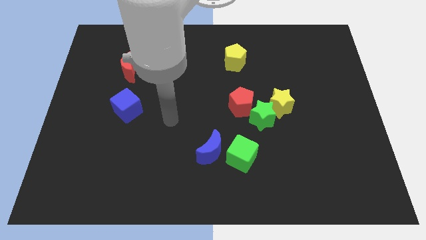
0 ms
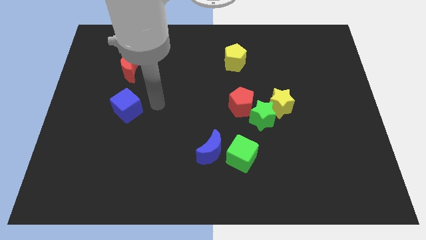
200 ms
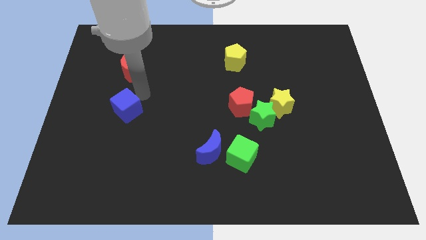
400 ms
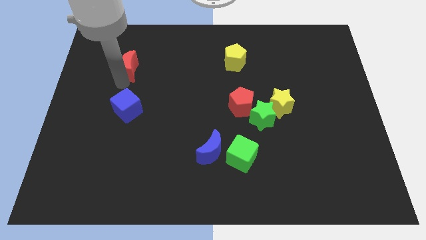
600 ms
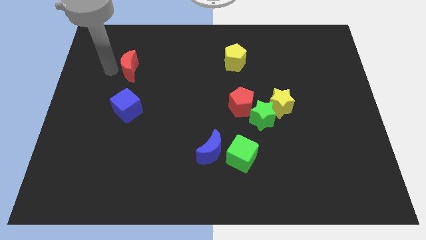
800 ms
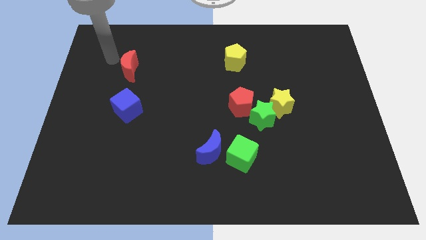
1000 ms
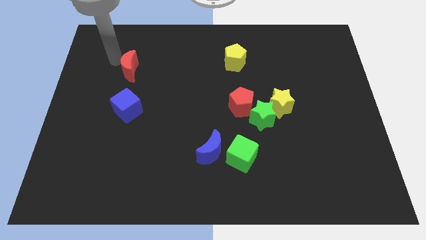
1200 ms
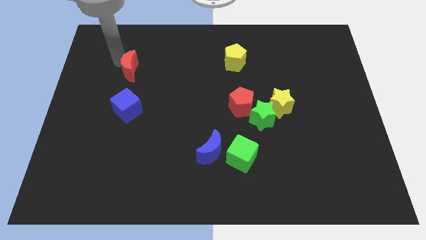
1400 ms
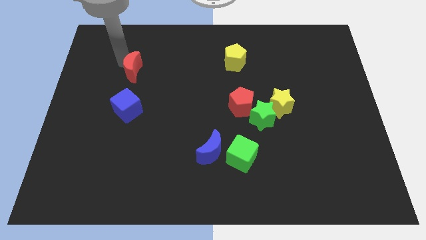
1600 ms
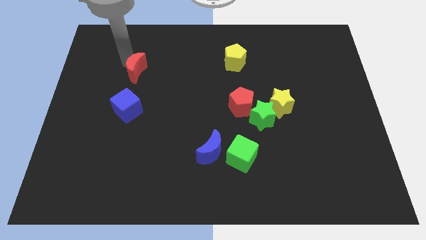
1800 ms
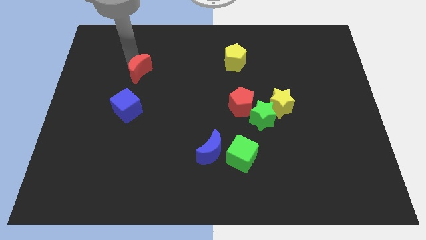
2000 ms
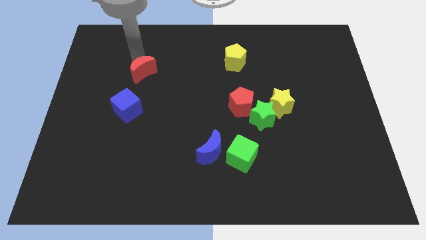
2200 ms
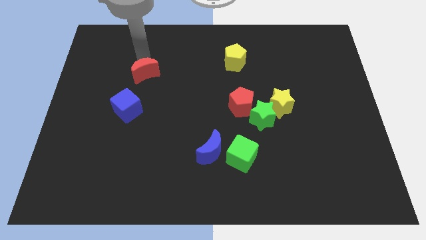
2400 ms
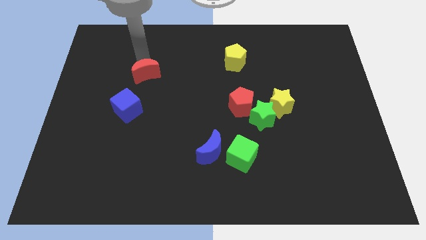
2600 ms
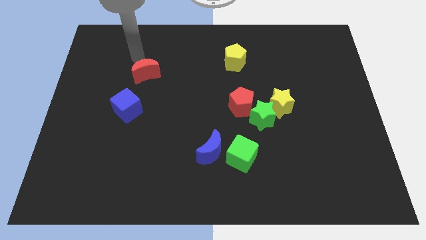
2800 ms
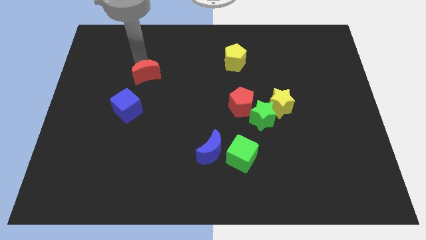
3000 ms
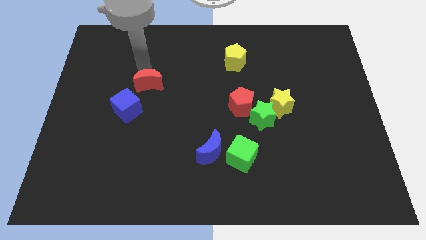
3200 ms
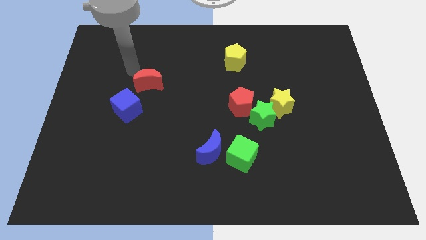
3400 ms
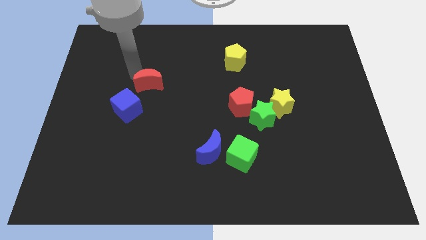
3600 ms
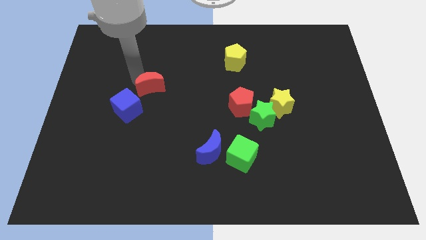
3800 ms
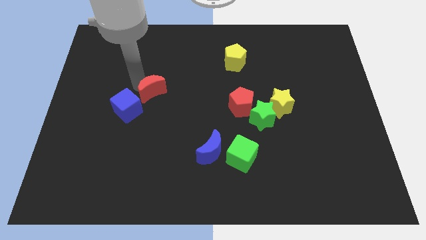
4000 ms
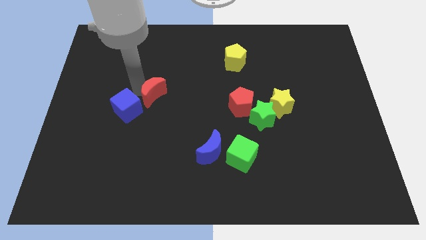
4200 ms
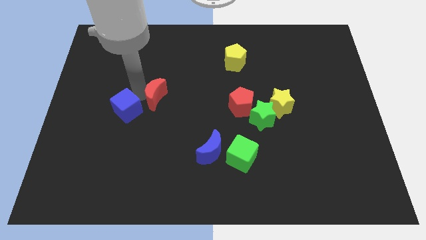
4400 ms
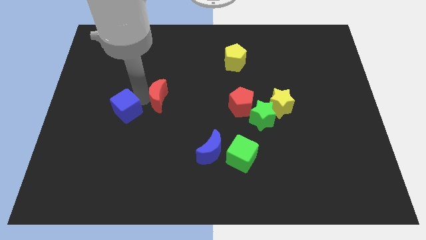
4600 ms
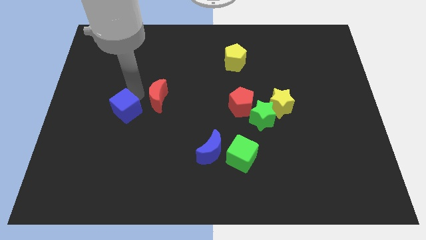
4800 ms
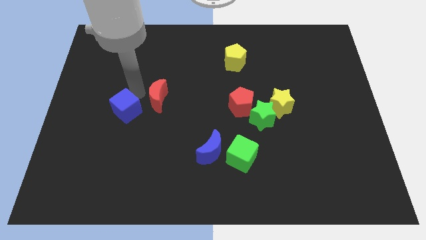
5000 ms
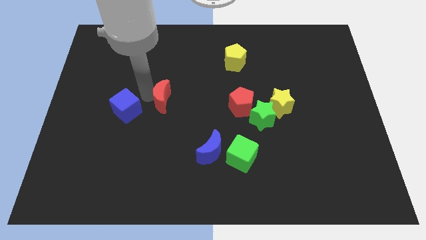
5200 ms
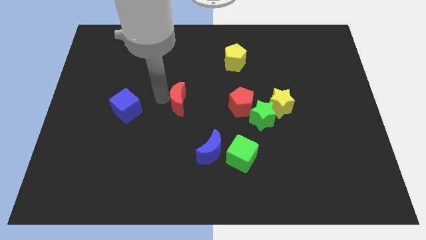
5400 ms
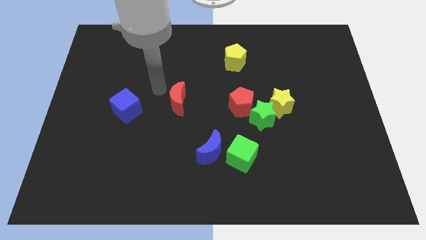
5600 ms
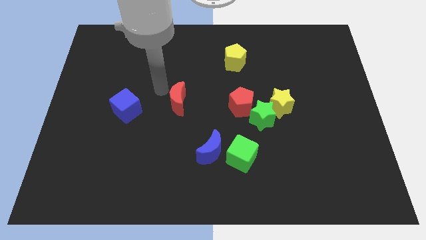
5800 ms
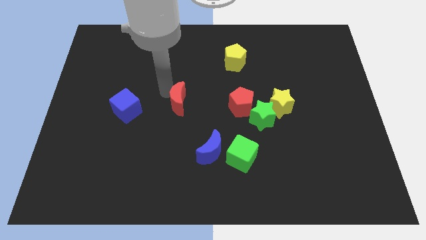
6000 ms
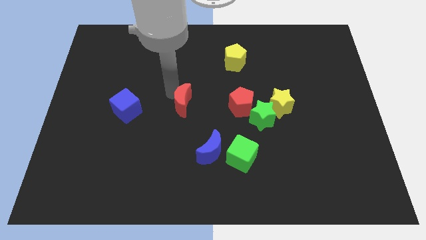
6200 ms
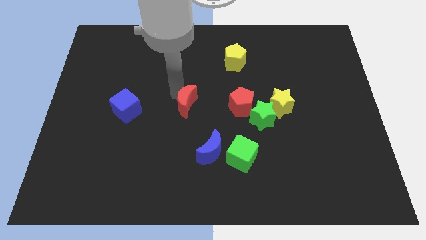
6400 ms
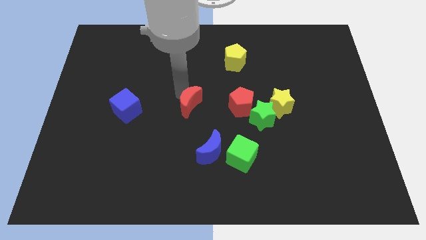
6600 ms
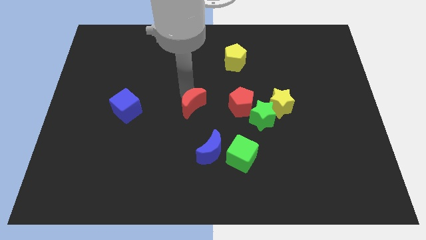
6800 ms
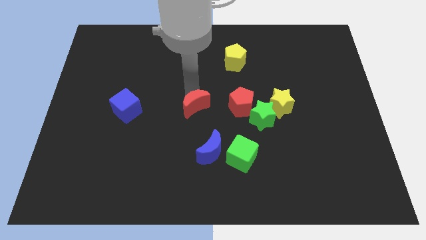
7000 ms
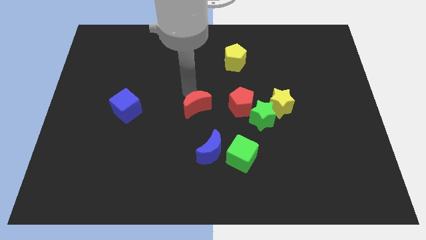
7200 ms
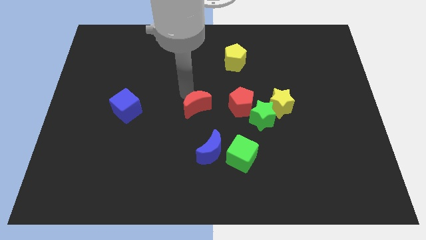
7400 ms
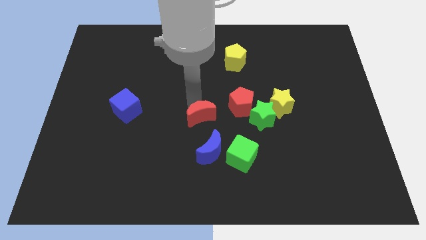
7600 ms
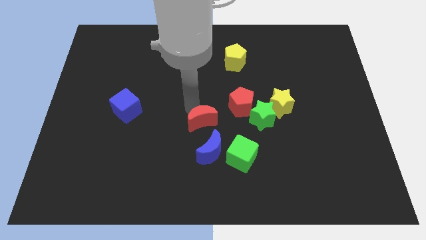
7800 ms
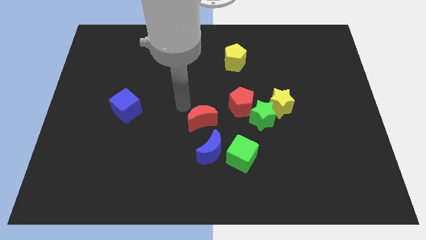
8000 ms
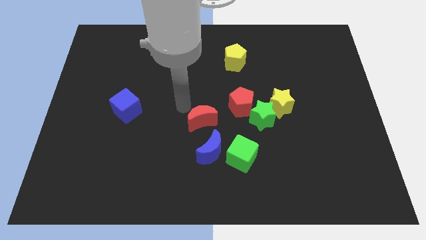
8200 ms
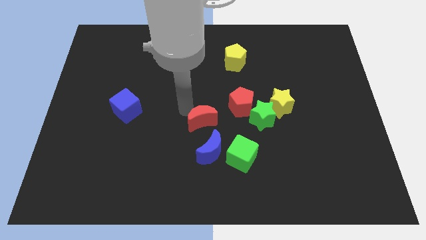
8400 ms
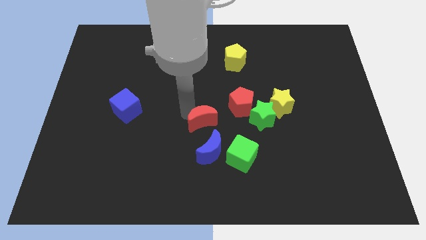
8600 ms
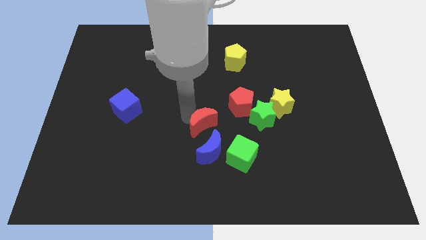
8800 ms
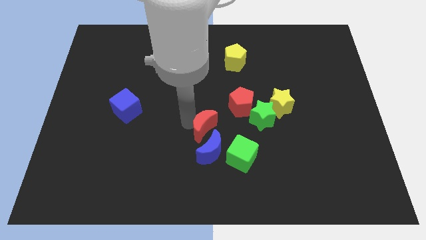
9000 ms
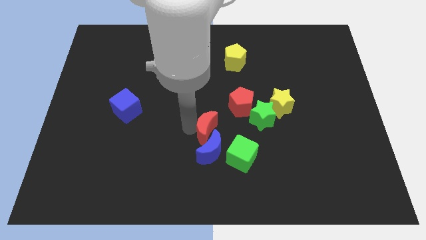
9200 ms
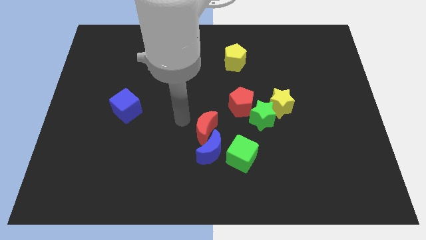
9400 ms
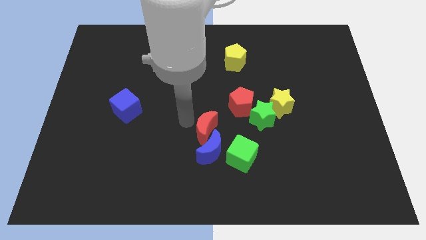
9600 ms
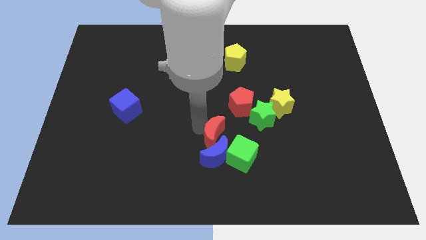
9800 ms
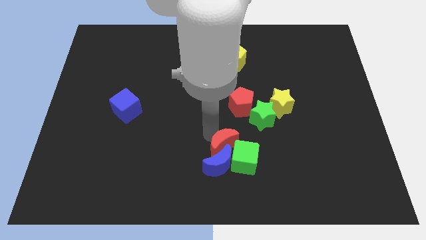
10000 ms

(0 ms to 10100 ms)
slide the red moon towards the green cube

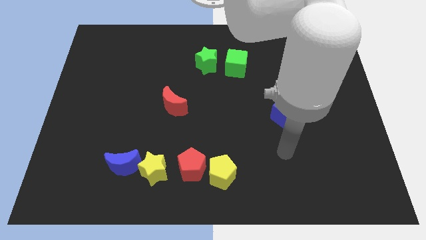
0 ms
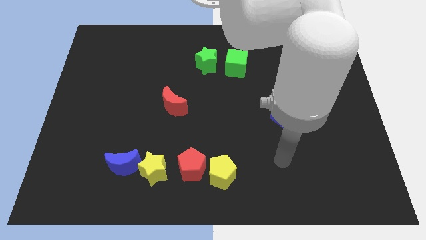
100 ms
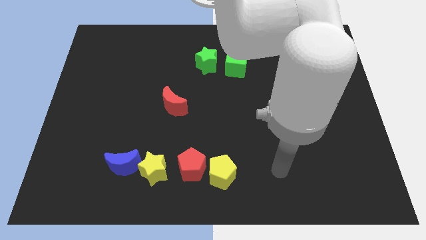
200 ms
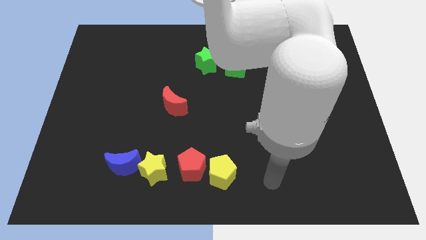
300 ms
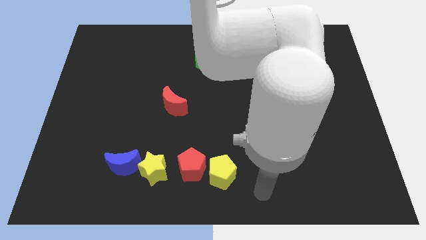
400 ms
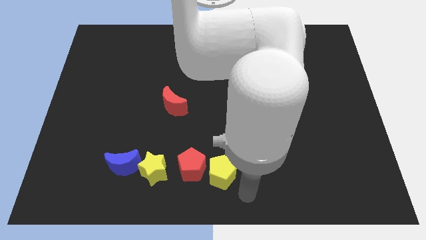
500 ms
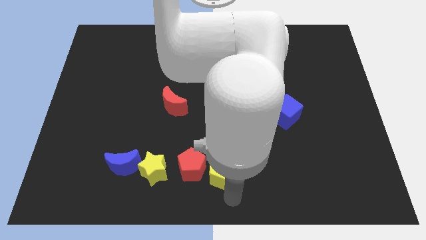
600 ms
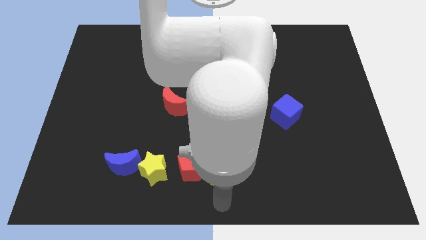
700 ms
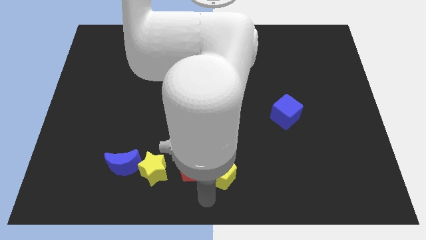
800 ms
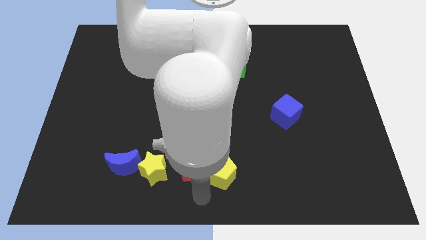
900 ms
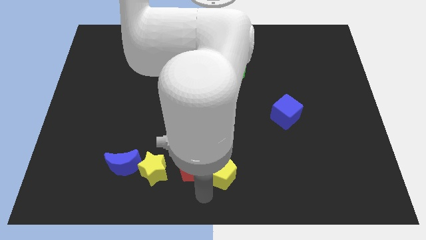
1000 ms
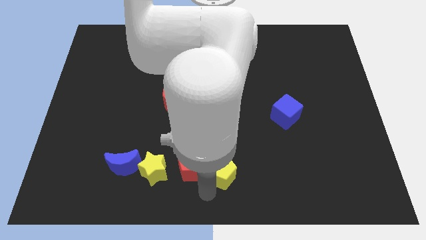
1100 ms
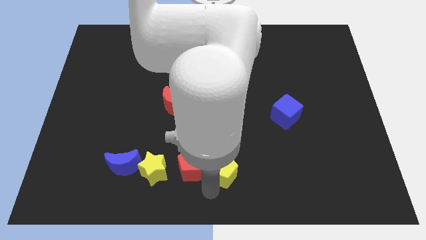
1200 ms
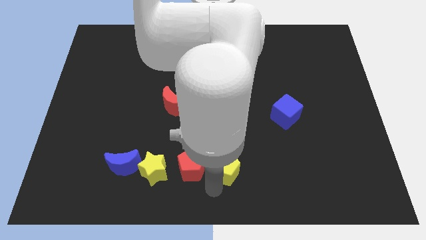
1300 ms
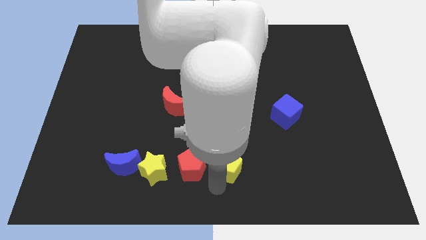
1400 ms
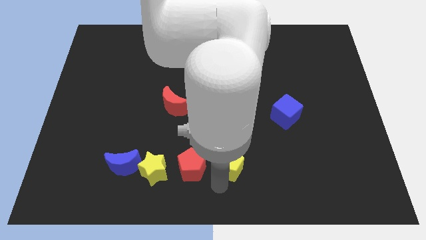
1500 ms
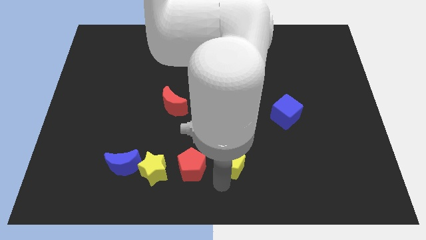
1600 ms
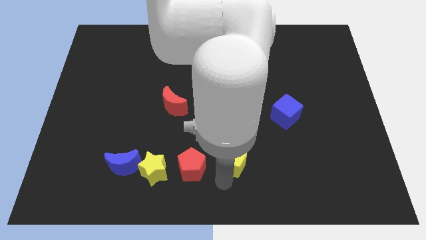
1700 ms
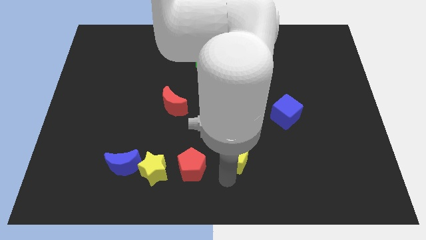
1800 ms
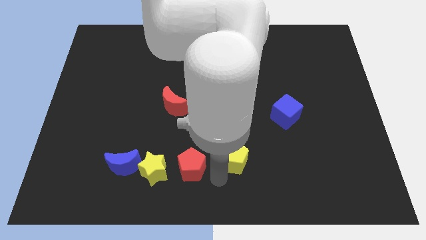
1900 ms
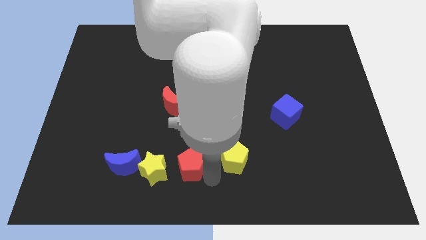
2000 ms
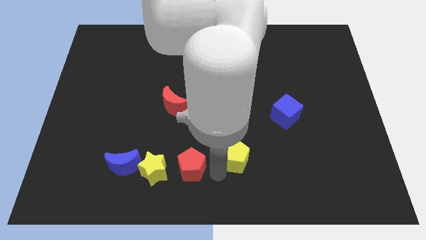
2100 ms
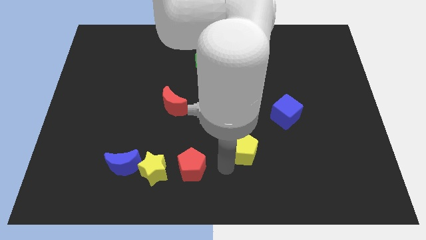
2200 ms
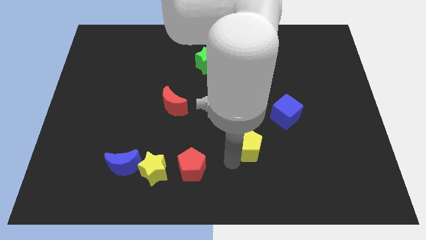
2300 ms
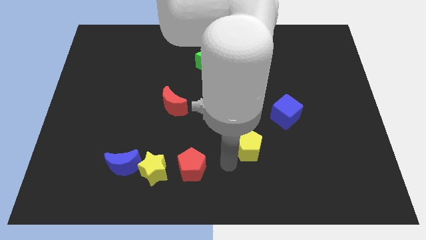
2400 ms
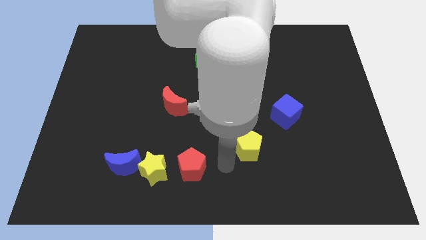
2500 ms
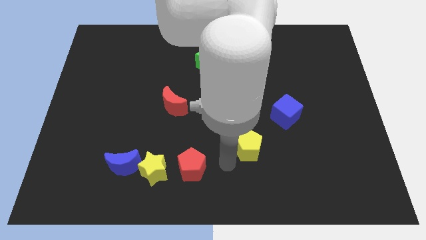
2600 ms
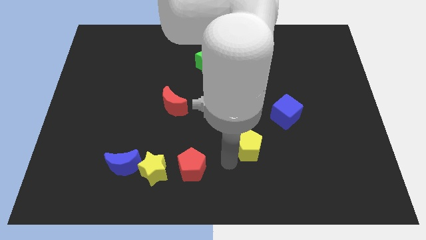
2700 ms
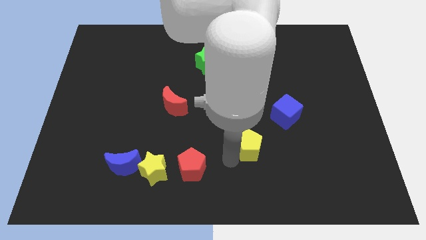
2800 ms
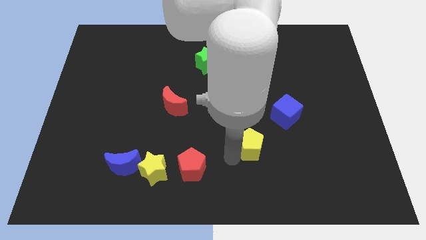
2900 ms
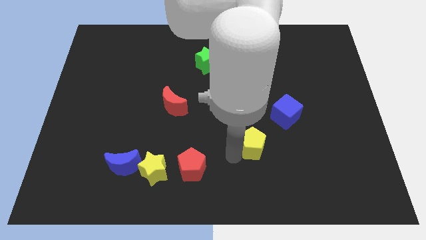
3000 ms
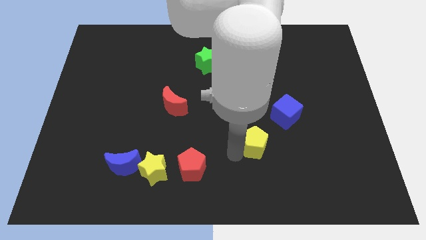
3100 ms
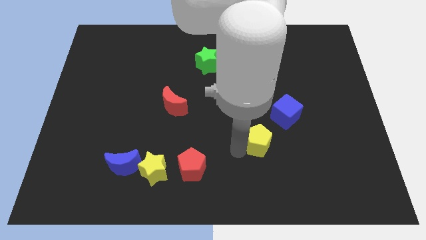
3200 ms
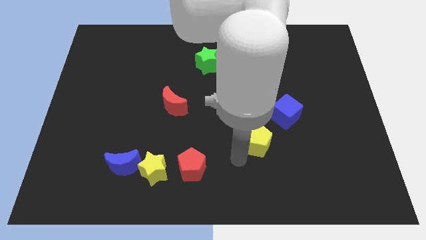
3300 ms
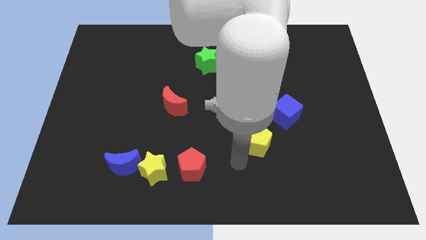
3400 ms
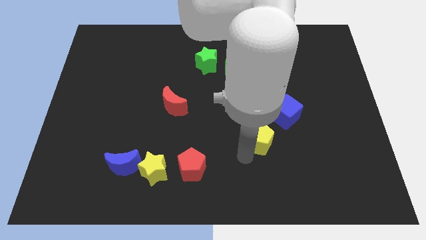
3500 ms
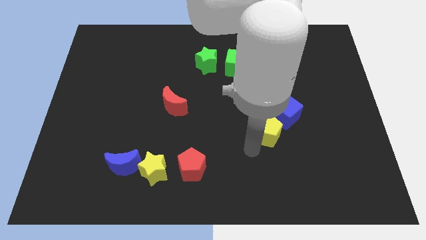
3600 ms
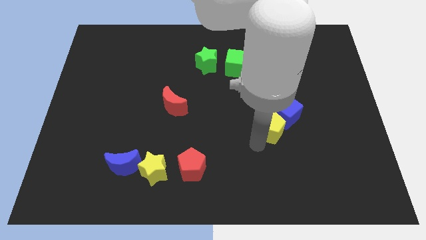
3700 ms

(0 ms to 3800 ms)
slide the yellow pentagon to the blue cube
